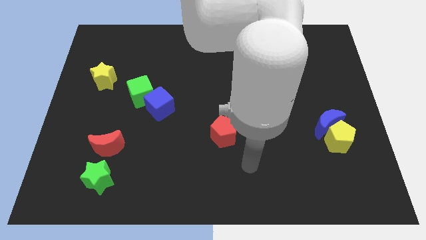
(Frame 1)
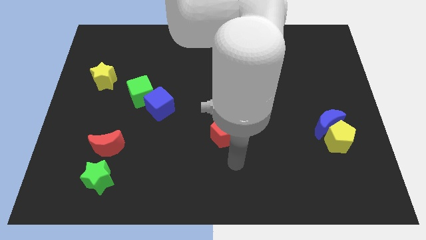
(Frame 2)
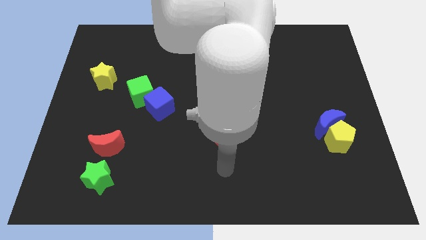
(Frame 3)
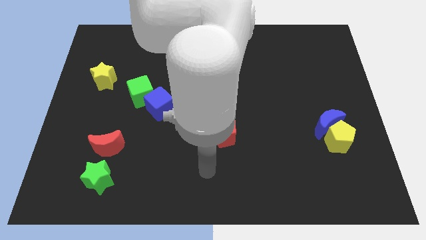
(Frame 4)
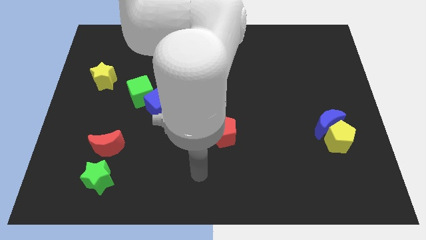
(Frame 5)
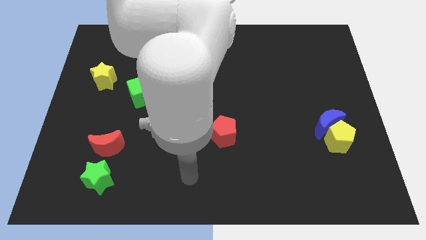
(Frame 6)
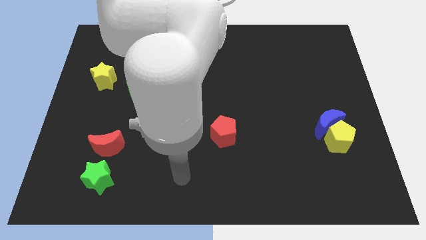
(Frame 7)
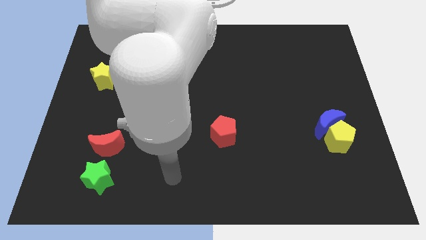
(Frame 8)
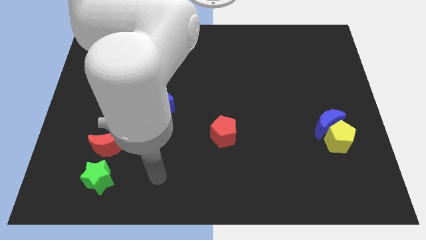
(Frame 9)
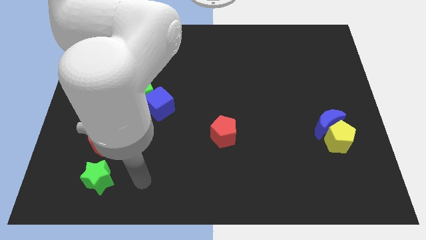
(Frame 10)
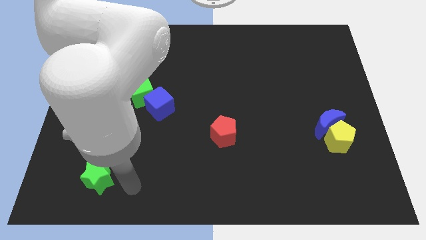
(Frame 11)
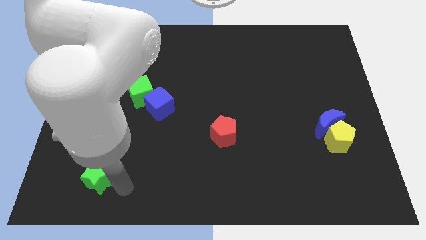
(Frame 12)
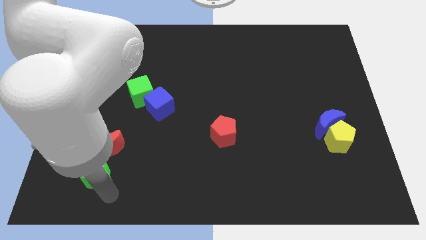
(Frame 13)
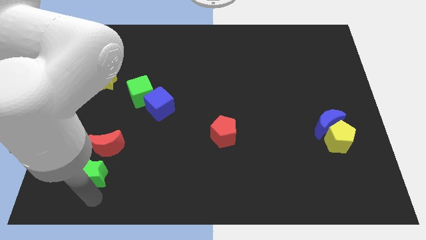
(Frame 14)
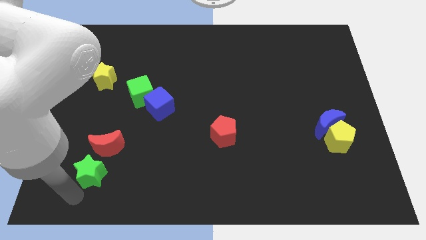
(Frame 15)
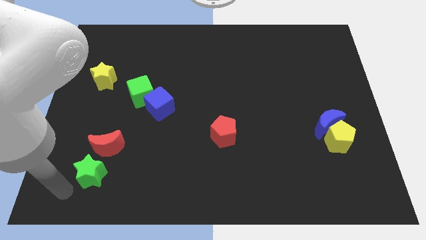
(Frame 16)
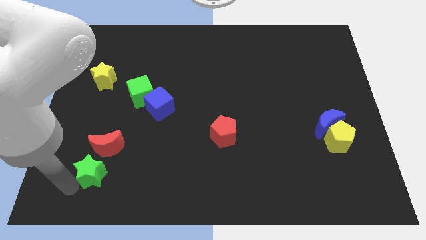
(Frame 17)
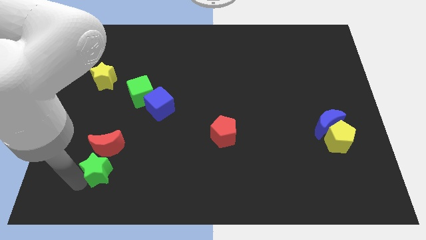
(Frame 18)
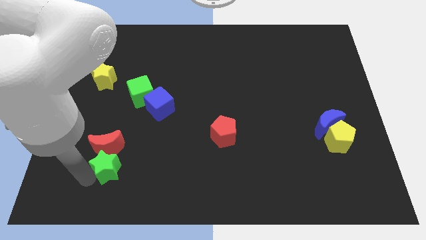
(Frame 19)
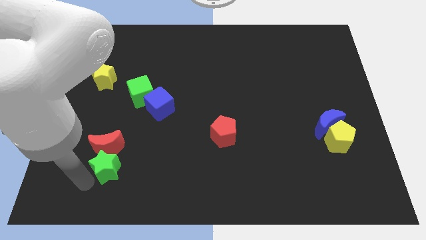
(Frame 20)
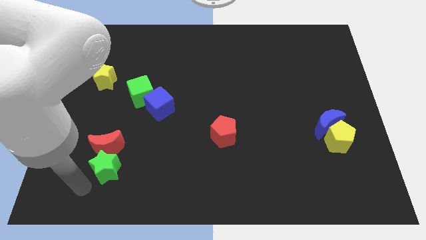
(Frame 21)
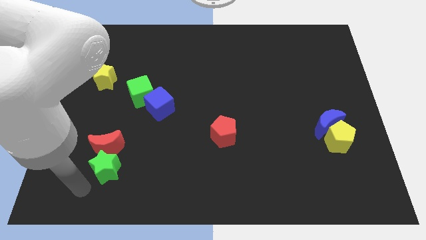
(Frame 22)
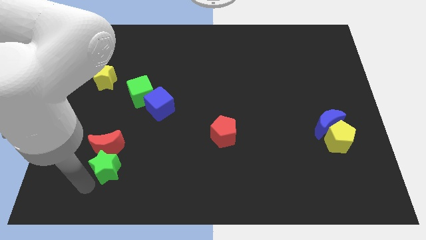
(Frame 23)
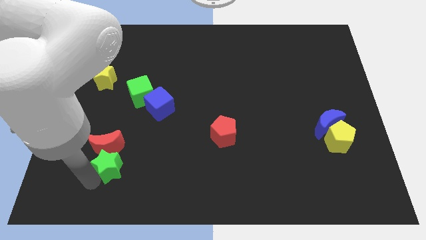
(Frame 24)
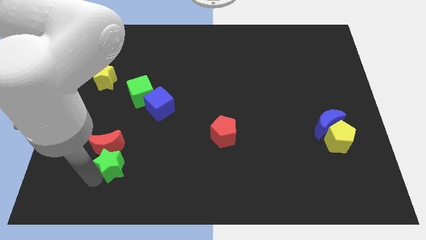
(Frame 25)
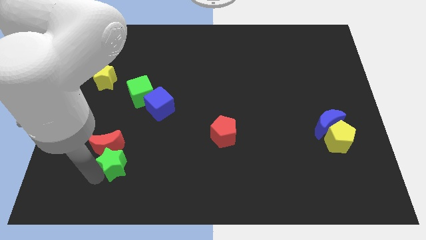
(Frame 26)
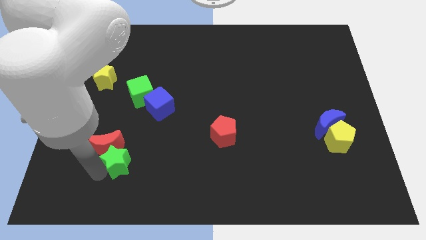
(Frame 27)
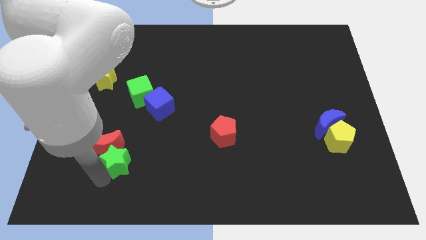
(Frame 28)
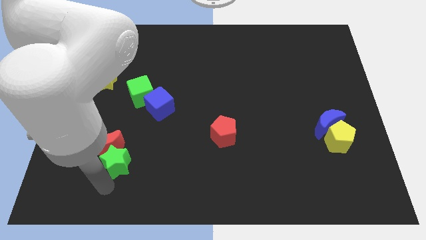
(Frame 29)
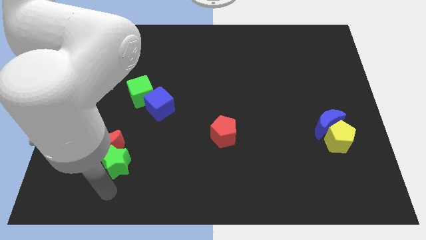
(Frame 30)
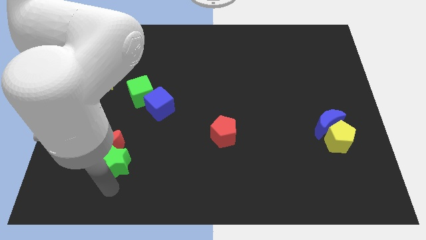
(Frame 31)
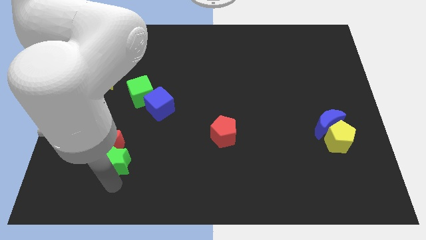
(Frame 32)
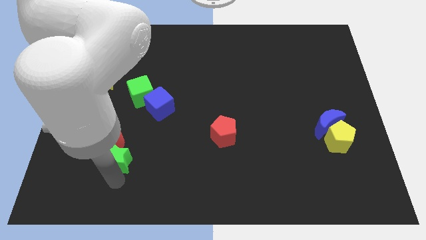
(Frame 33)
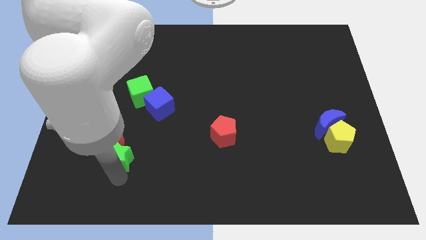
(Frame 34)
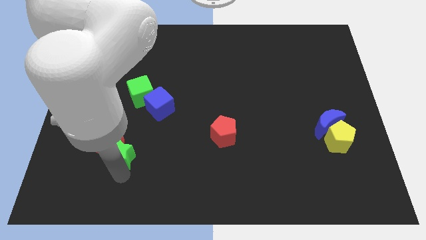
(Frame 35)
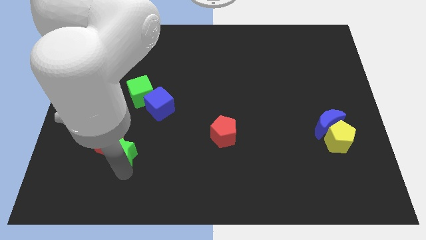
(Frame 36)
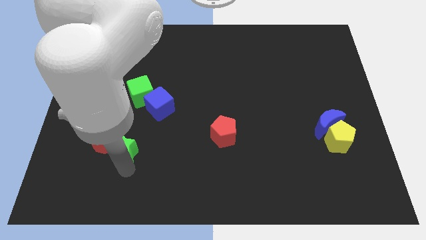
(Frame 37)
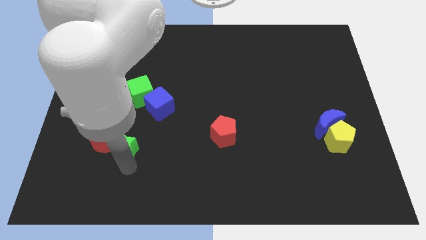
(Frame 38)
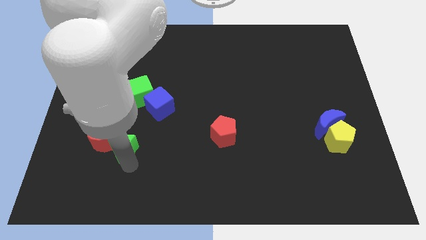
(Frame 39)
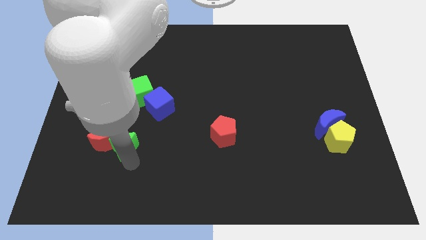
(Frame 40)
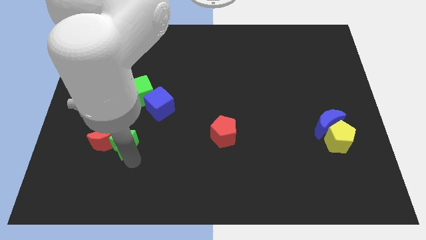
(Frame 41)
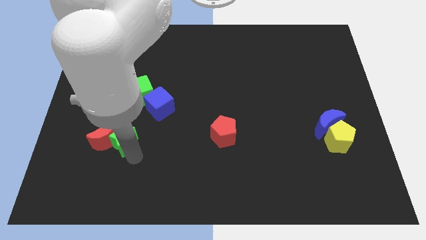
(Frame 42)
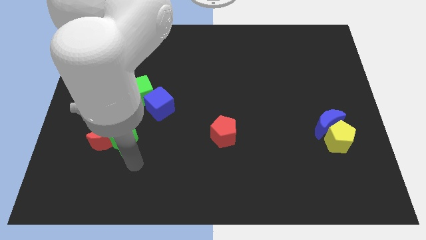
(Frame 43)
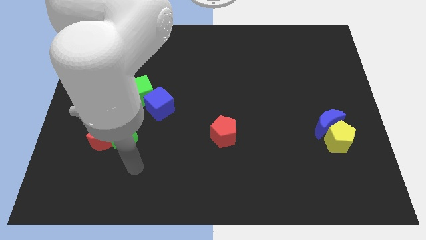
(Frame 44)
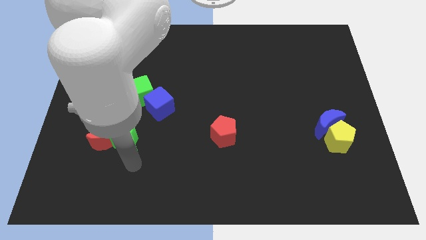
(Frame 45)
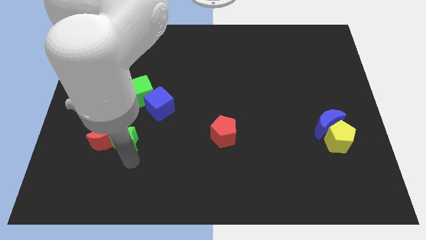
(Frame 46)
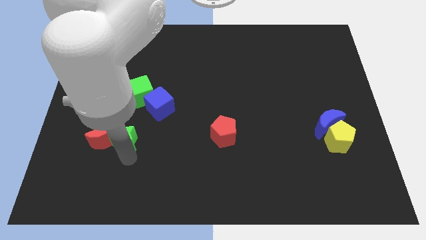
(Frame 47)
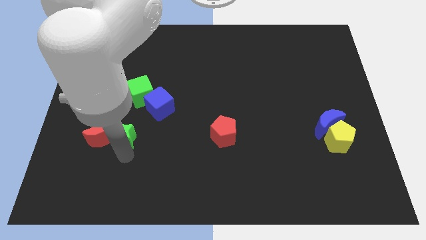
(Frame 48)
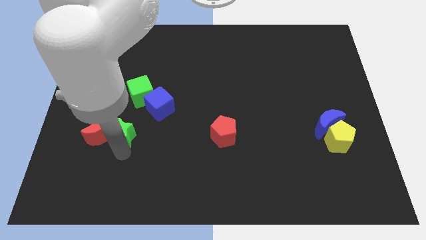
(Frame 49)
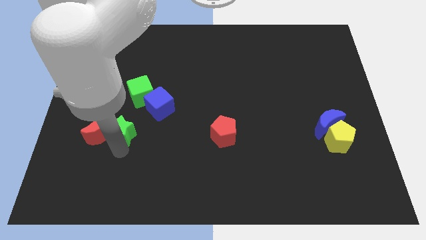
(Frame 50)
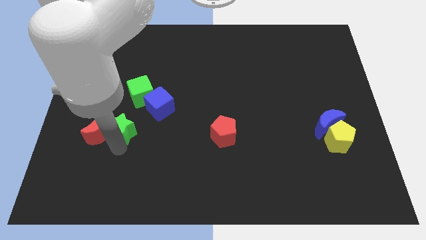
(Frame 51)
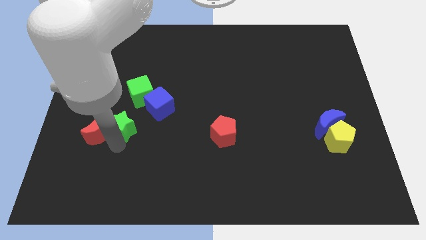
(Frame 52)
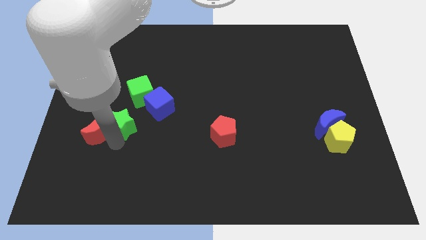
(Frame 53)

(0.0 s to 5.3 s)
move the green star to the bottom left of the green cube

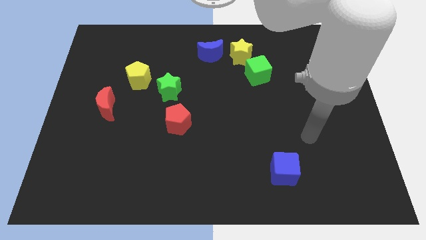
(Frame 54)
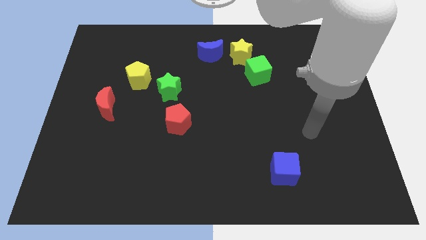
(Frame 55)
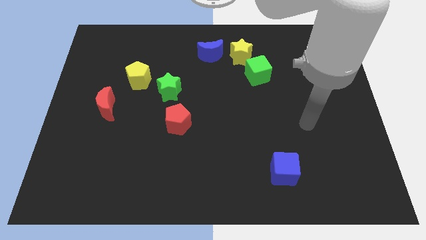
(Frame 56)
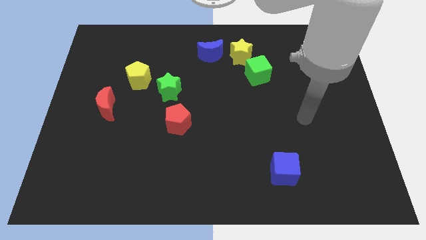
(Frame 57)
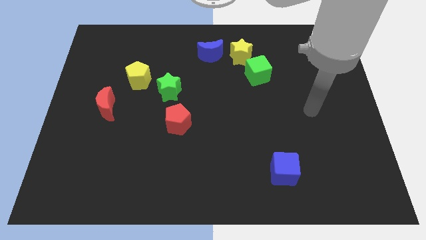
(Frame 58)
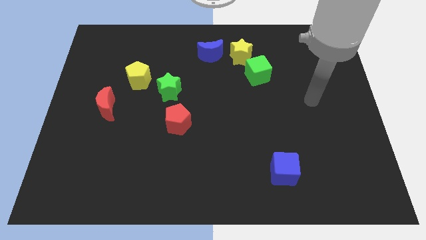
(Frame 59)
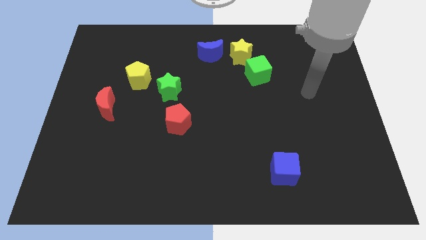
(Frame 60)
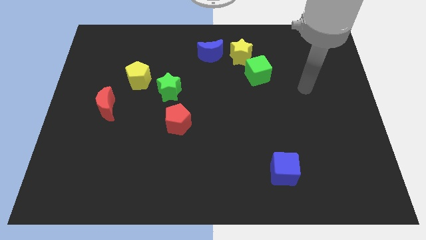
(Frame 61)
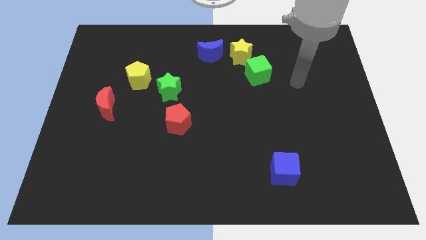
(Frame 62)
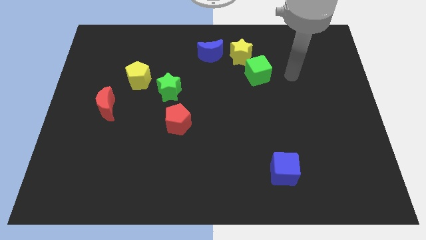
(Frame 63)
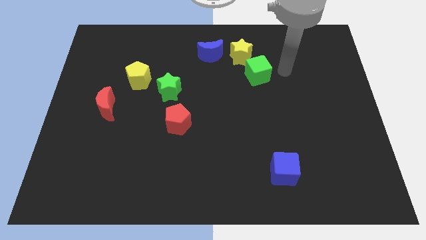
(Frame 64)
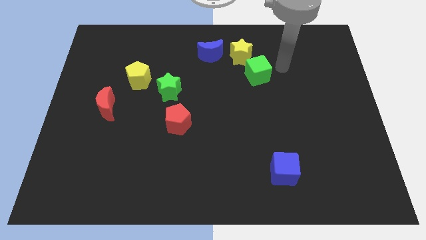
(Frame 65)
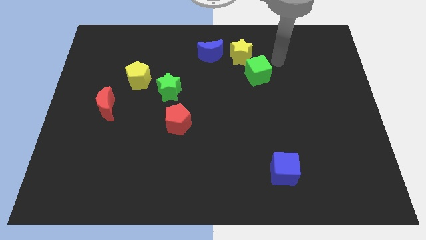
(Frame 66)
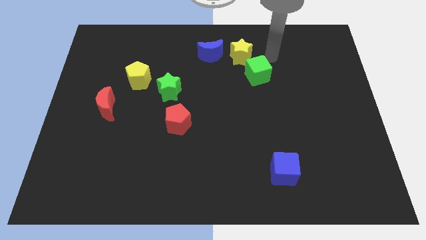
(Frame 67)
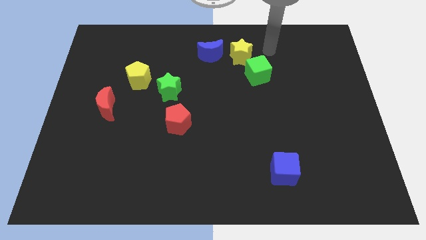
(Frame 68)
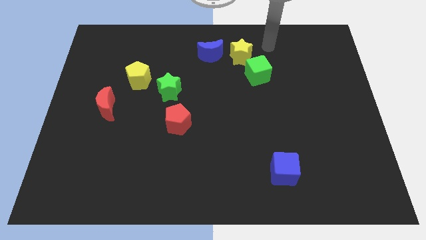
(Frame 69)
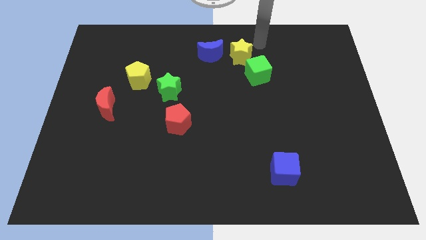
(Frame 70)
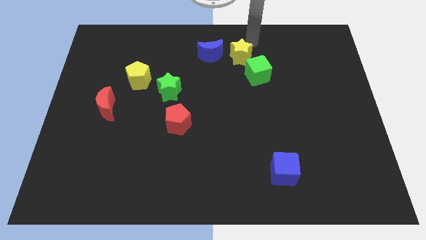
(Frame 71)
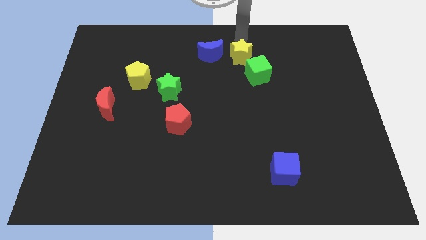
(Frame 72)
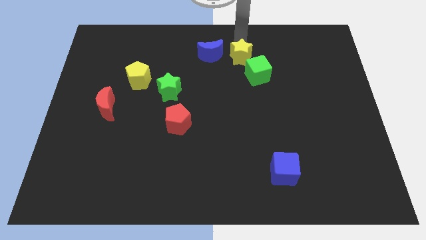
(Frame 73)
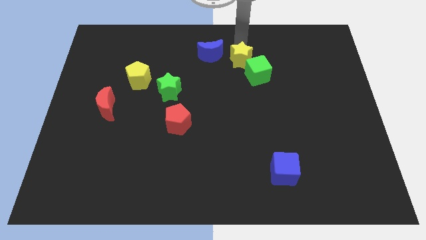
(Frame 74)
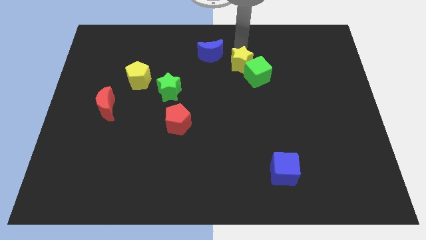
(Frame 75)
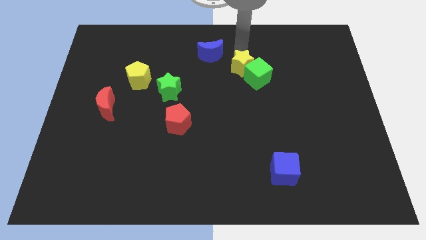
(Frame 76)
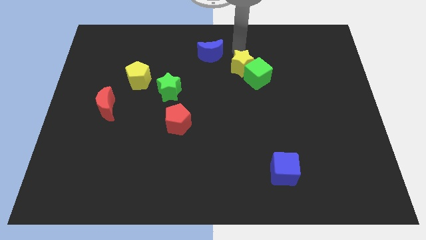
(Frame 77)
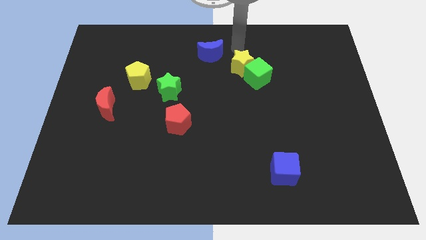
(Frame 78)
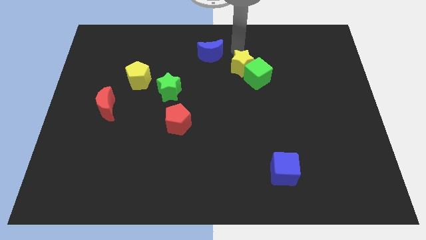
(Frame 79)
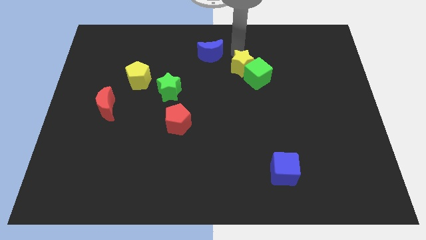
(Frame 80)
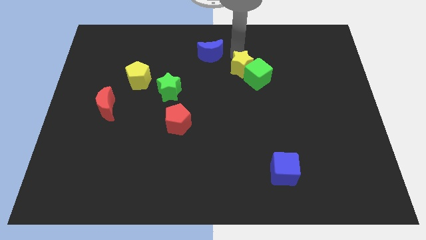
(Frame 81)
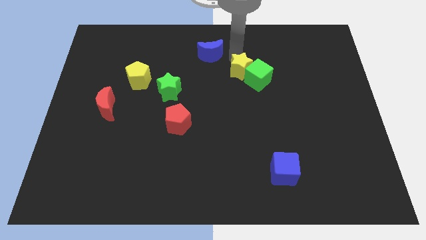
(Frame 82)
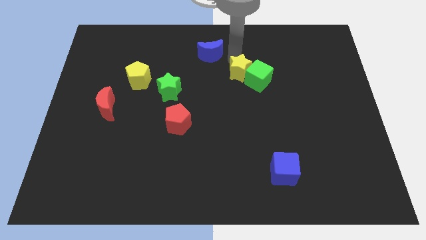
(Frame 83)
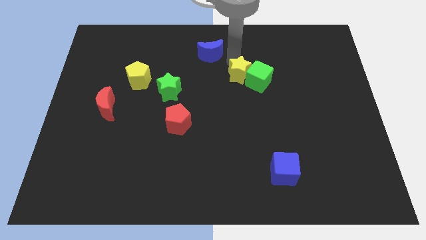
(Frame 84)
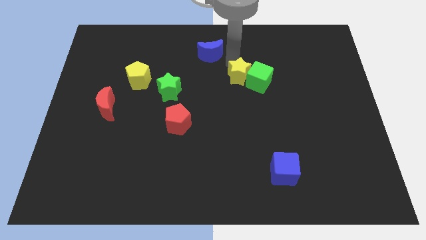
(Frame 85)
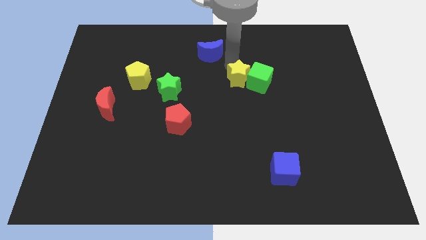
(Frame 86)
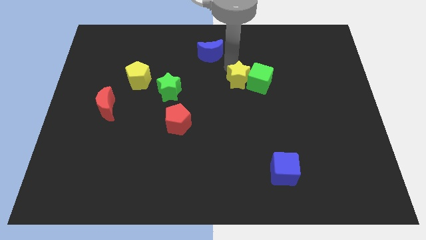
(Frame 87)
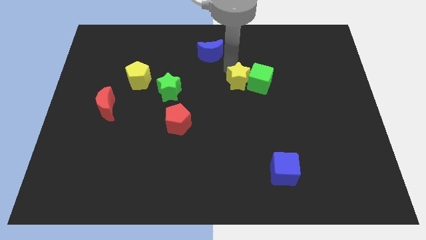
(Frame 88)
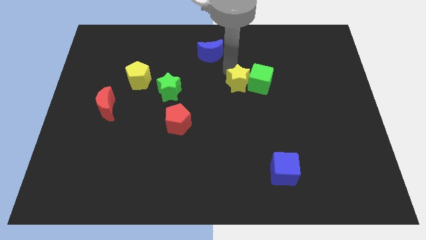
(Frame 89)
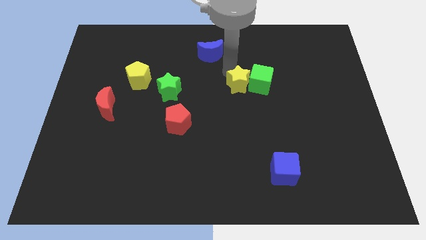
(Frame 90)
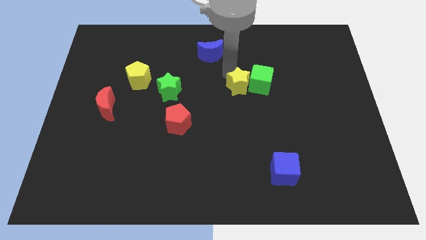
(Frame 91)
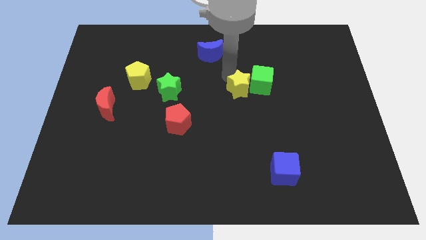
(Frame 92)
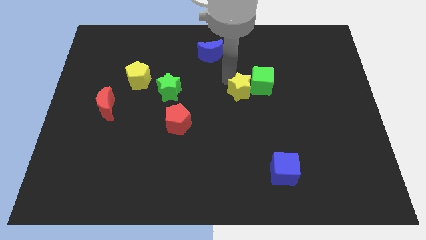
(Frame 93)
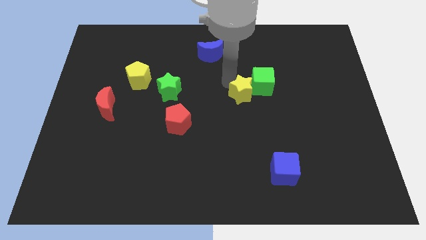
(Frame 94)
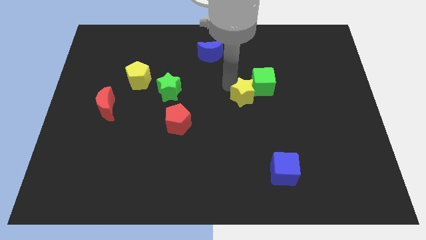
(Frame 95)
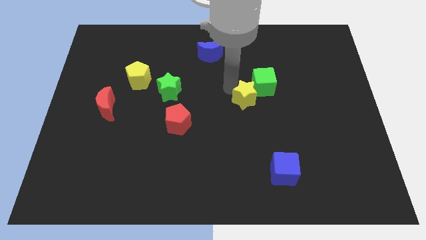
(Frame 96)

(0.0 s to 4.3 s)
put the yellow star below the green cube
